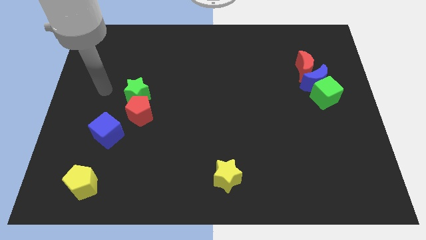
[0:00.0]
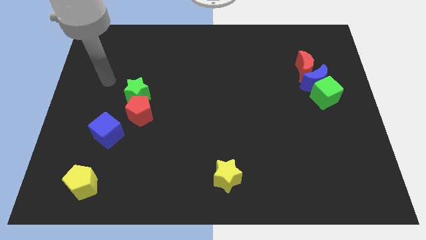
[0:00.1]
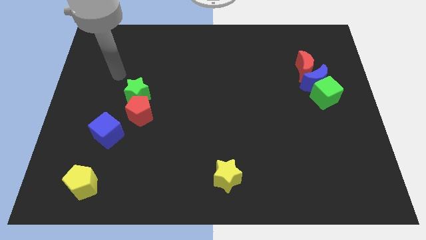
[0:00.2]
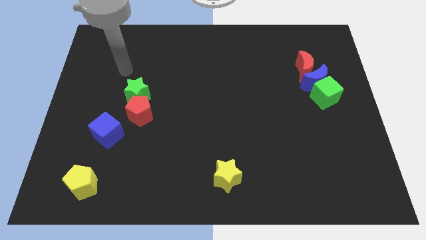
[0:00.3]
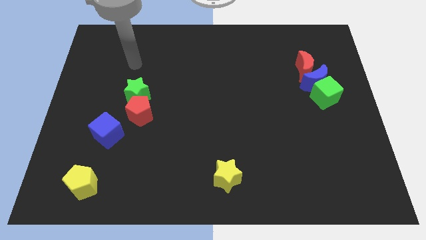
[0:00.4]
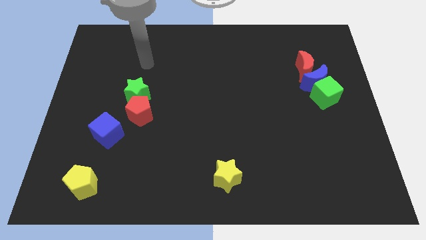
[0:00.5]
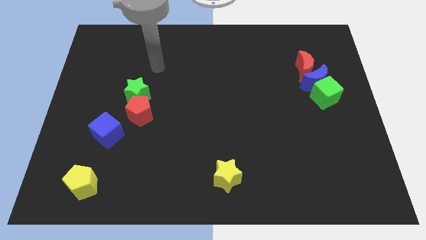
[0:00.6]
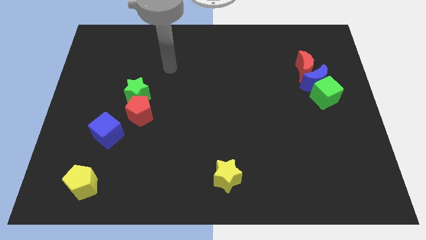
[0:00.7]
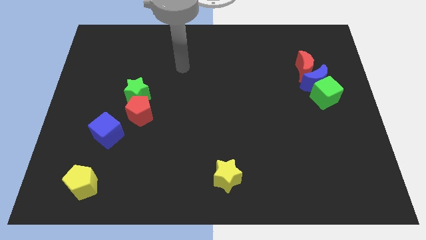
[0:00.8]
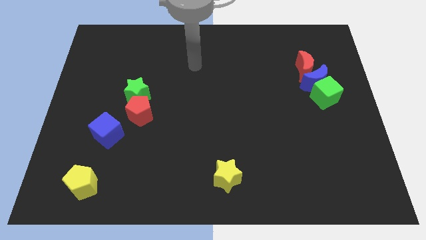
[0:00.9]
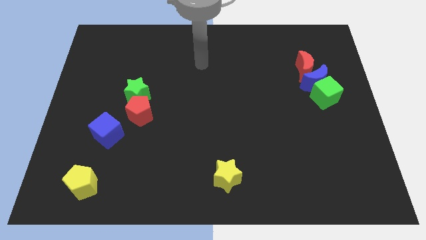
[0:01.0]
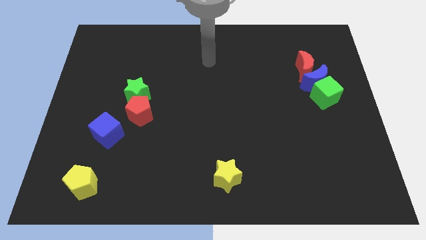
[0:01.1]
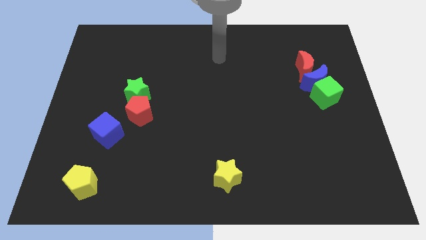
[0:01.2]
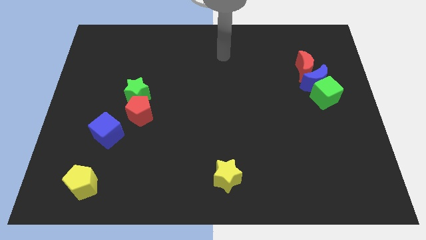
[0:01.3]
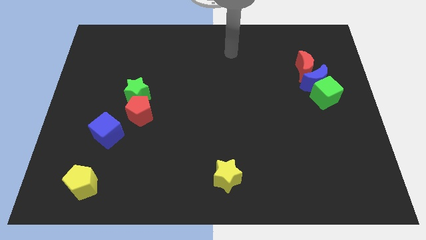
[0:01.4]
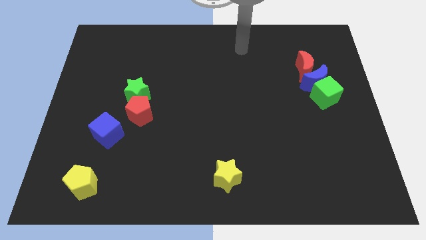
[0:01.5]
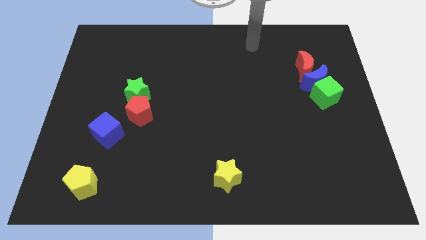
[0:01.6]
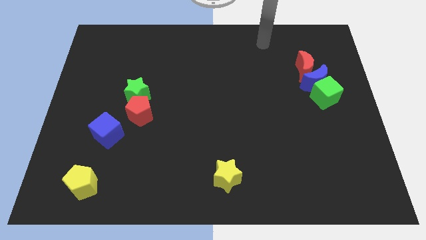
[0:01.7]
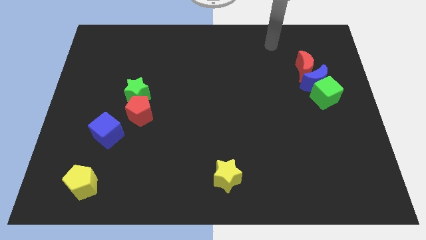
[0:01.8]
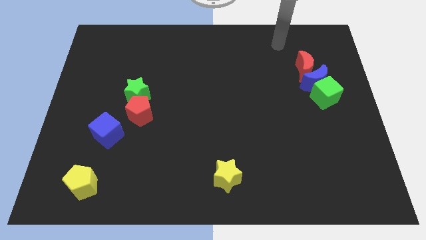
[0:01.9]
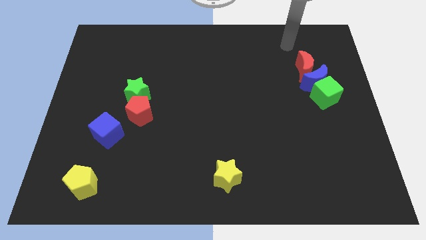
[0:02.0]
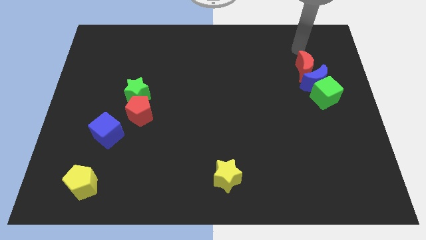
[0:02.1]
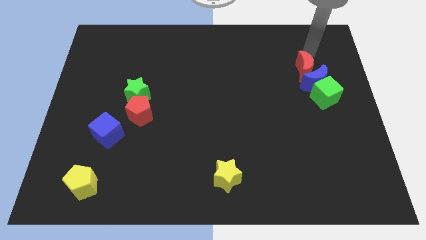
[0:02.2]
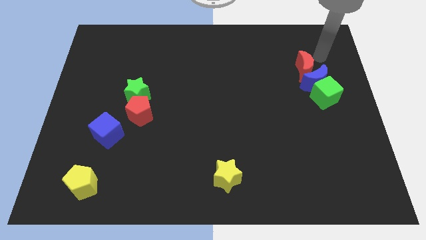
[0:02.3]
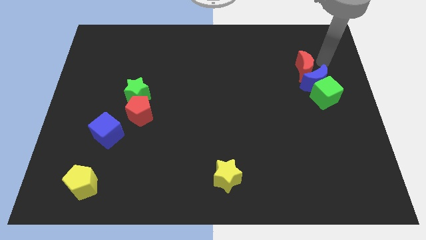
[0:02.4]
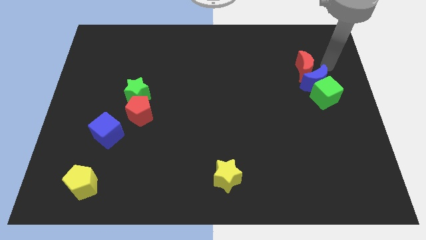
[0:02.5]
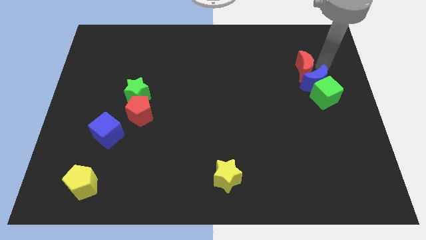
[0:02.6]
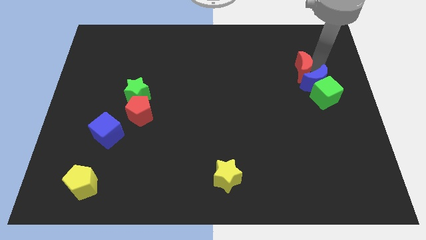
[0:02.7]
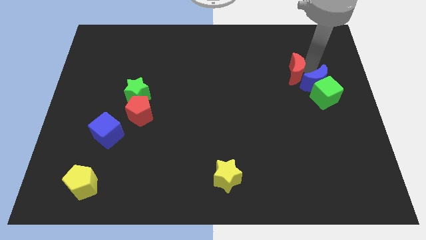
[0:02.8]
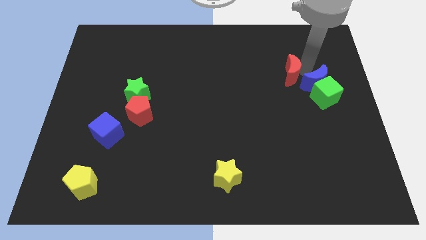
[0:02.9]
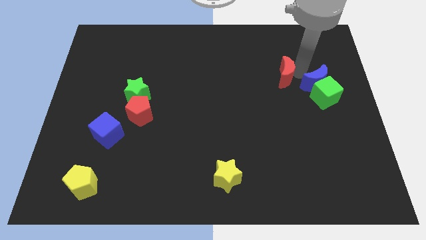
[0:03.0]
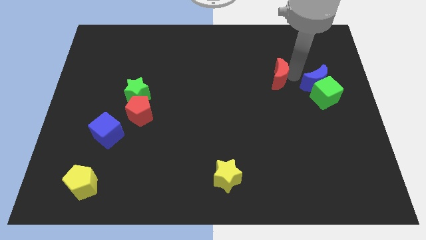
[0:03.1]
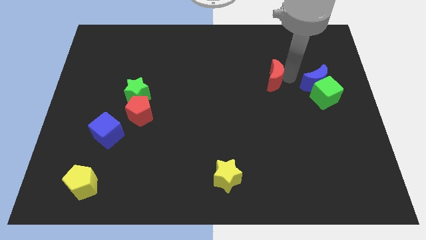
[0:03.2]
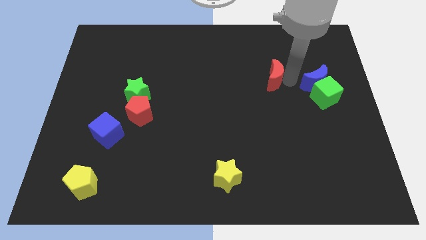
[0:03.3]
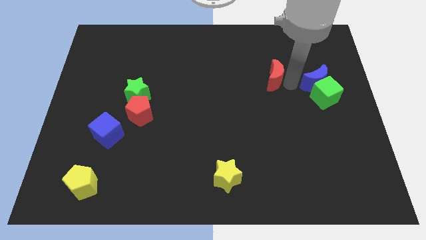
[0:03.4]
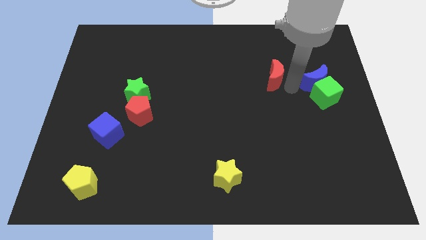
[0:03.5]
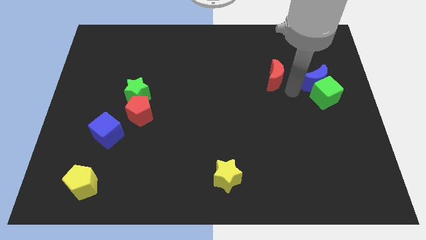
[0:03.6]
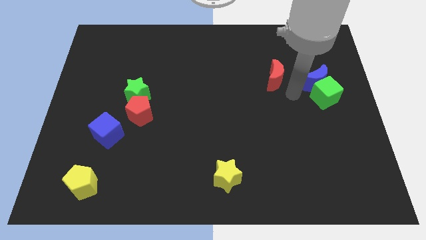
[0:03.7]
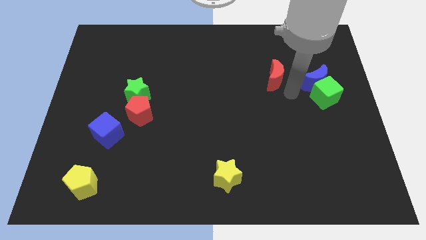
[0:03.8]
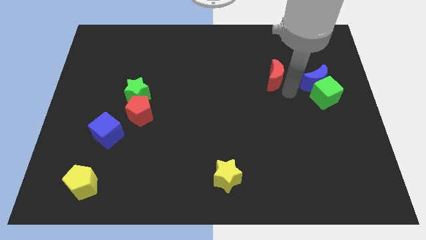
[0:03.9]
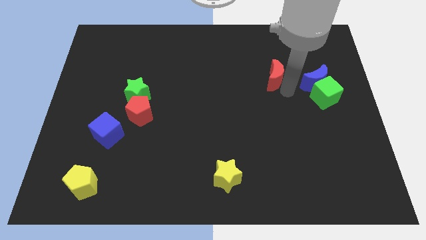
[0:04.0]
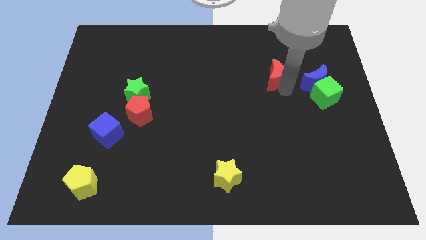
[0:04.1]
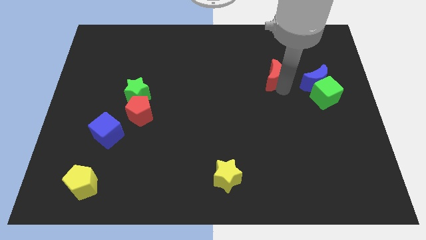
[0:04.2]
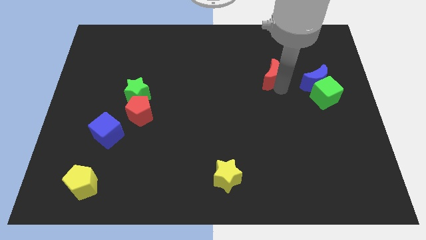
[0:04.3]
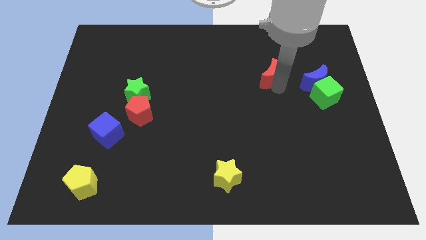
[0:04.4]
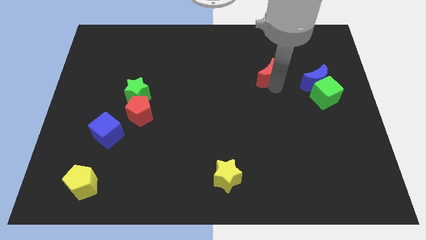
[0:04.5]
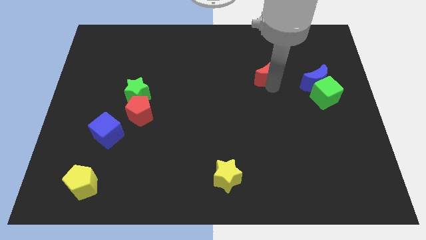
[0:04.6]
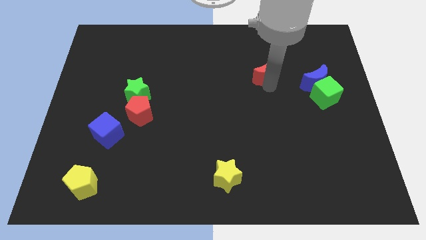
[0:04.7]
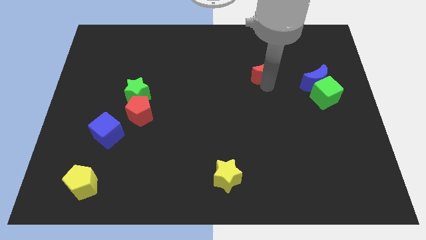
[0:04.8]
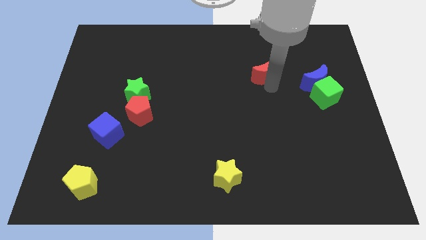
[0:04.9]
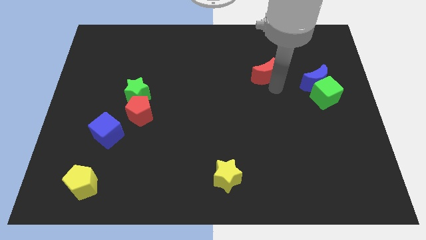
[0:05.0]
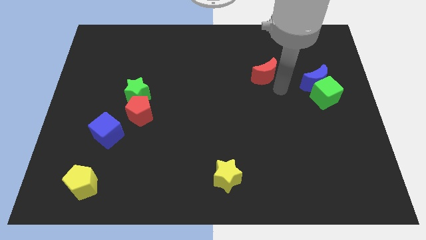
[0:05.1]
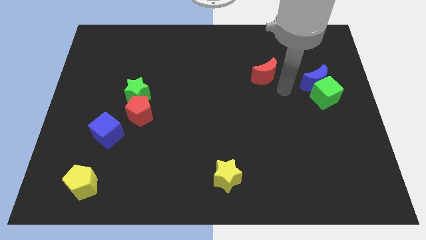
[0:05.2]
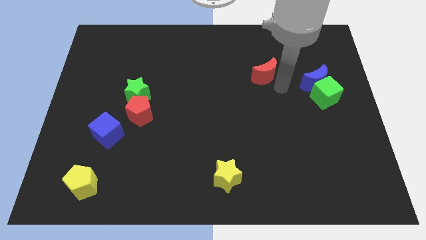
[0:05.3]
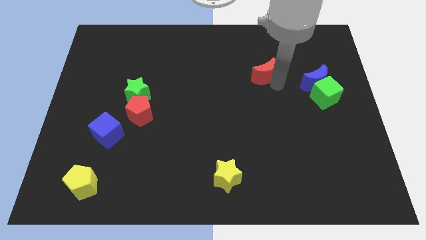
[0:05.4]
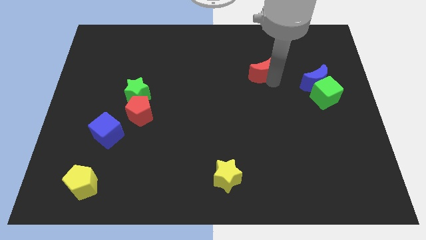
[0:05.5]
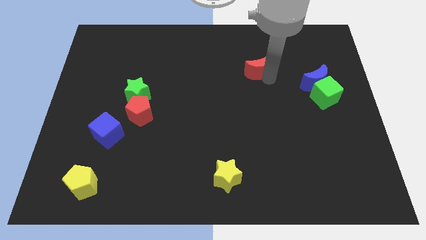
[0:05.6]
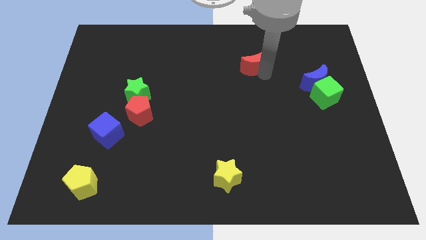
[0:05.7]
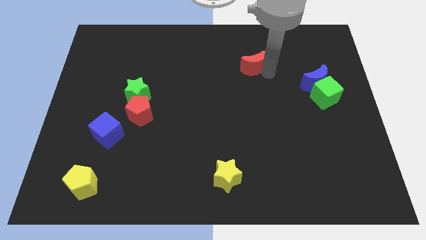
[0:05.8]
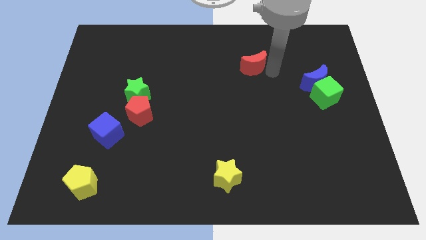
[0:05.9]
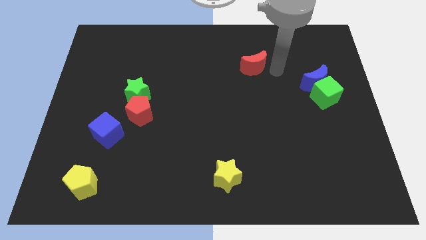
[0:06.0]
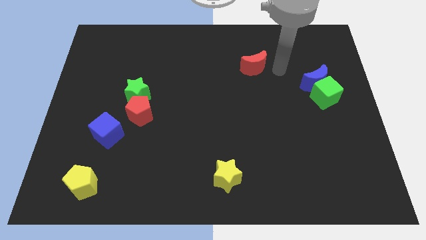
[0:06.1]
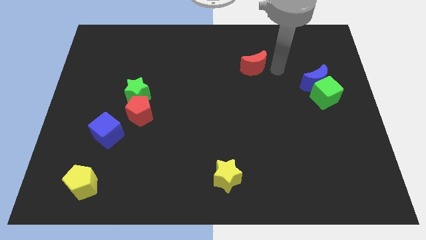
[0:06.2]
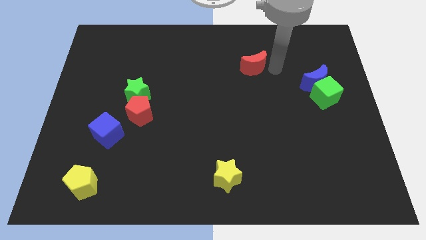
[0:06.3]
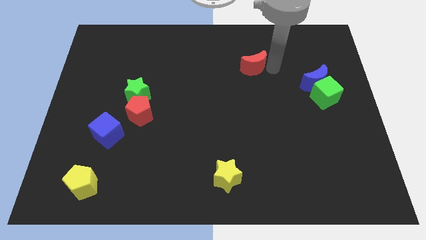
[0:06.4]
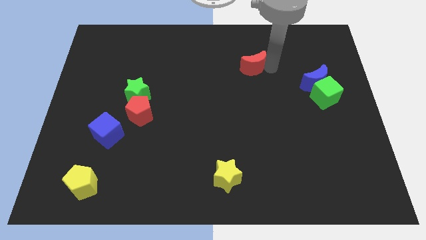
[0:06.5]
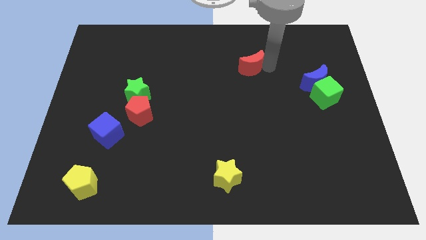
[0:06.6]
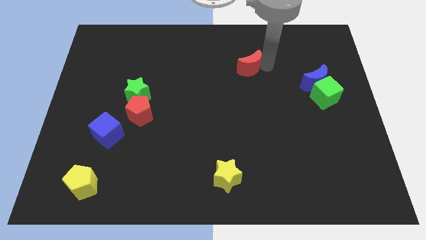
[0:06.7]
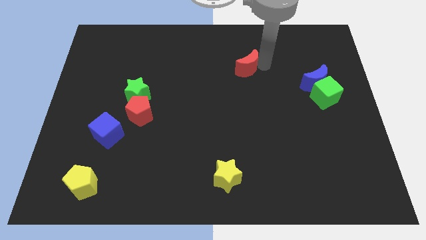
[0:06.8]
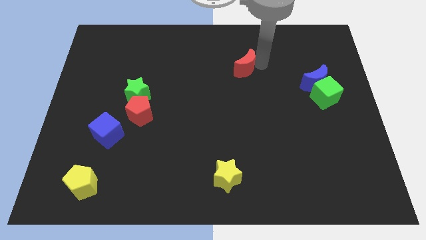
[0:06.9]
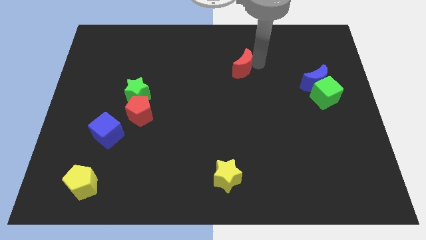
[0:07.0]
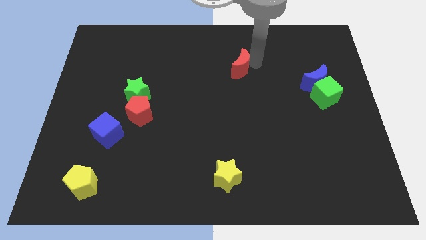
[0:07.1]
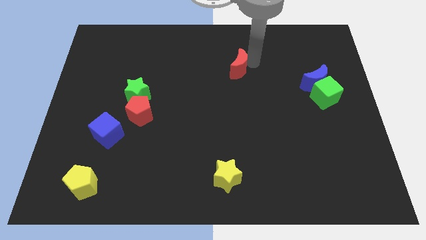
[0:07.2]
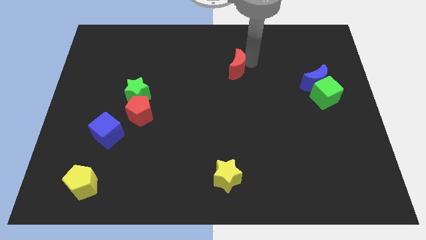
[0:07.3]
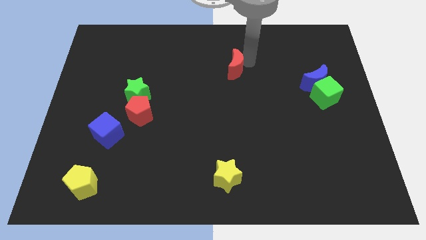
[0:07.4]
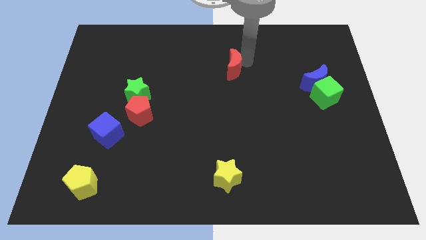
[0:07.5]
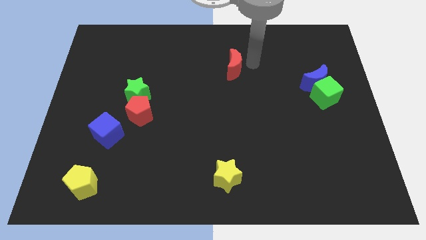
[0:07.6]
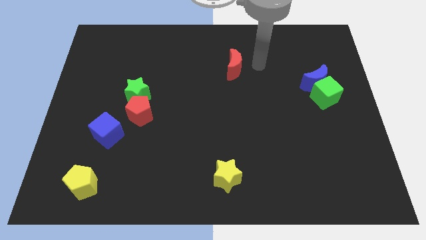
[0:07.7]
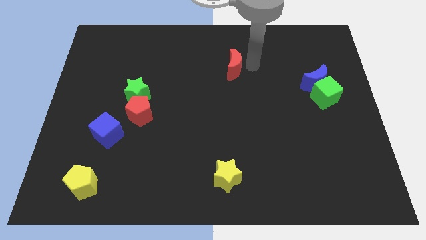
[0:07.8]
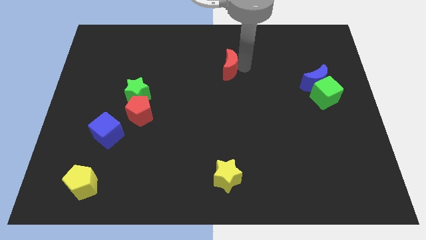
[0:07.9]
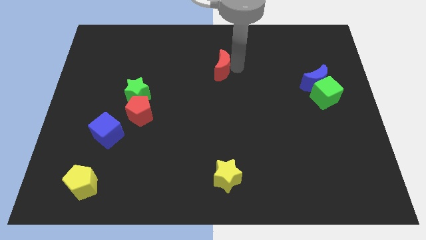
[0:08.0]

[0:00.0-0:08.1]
move the red moon left
